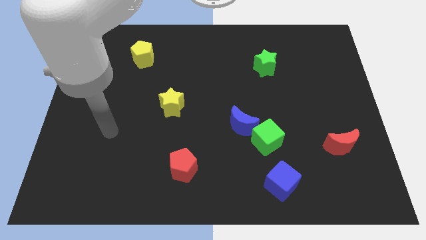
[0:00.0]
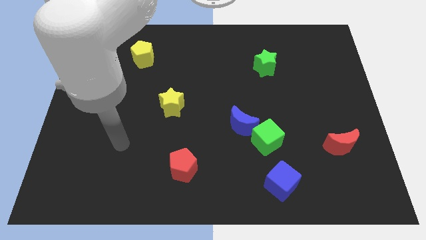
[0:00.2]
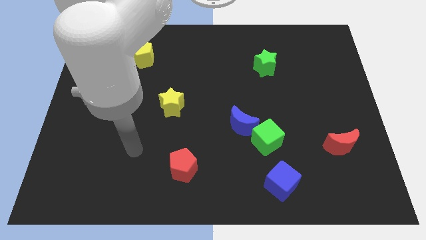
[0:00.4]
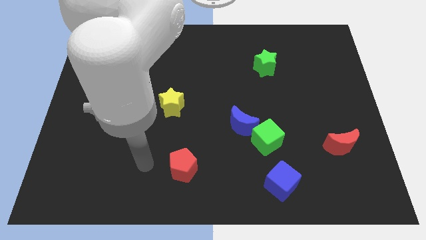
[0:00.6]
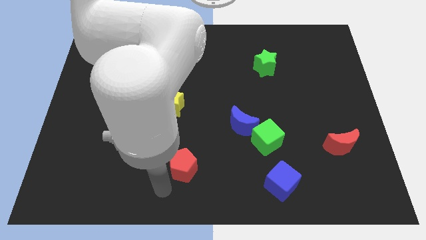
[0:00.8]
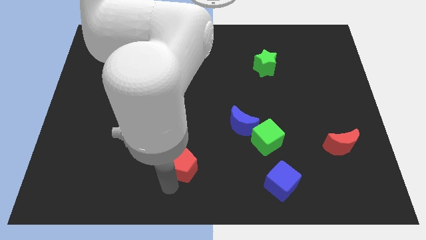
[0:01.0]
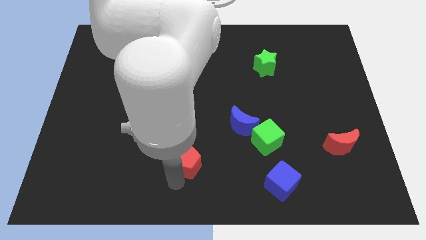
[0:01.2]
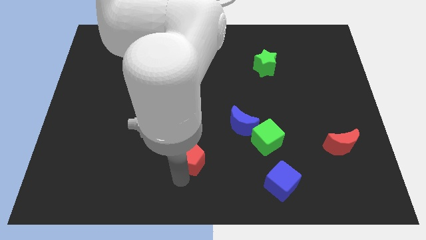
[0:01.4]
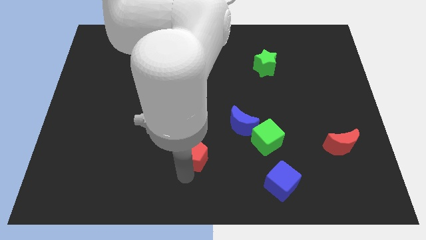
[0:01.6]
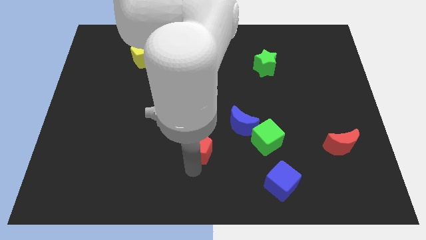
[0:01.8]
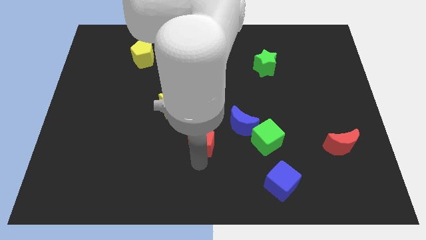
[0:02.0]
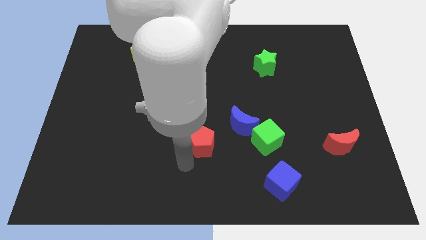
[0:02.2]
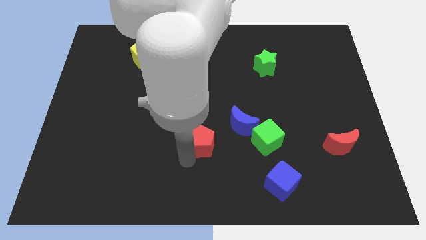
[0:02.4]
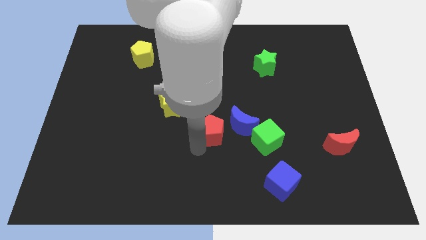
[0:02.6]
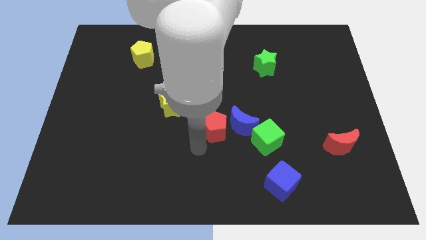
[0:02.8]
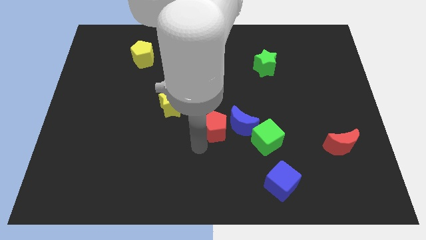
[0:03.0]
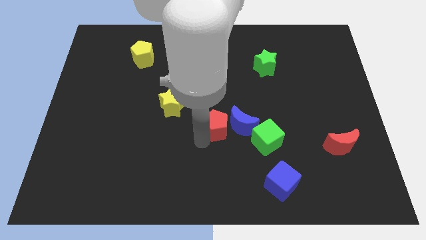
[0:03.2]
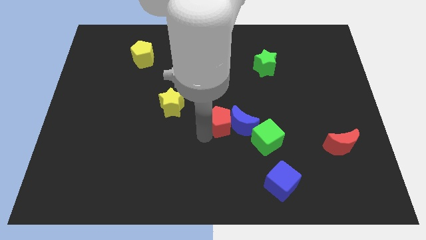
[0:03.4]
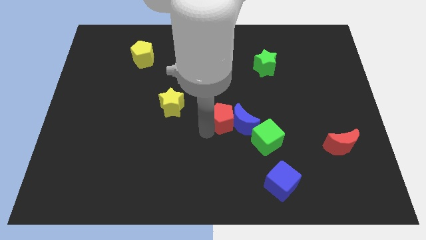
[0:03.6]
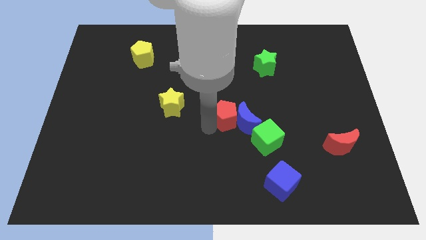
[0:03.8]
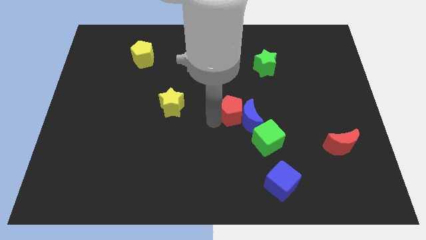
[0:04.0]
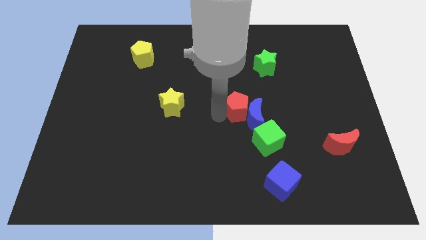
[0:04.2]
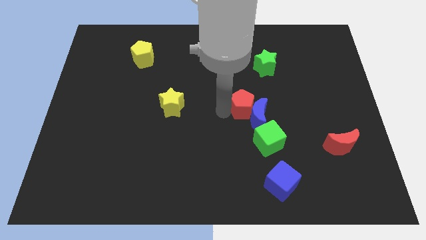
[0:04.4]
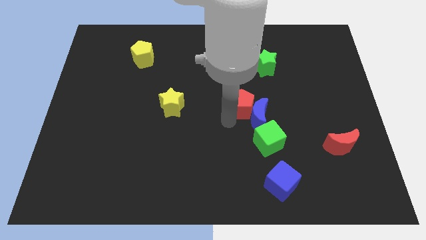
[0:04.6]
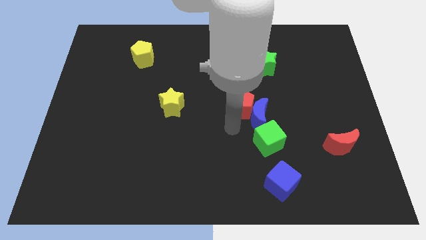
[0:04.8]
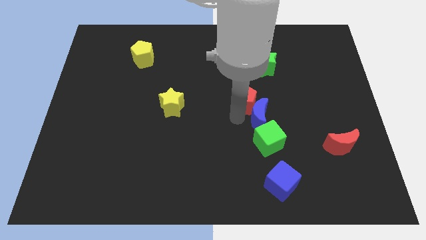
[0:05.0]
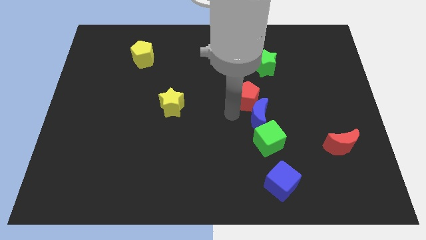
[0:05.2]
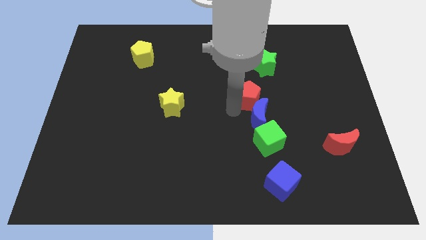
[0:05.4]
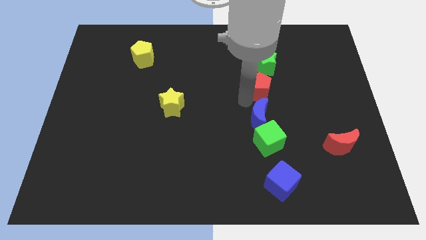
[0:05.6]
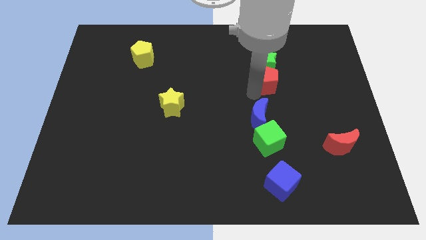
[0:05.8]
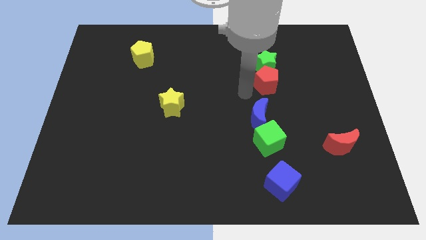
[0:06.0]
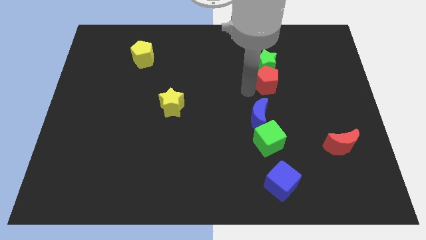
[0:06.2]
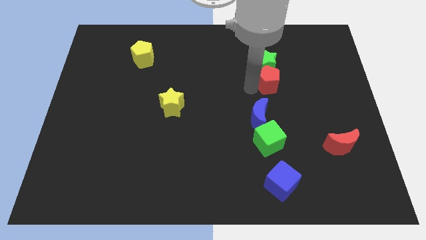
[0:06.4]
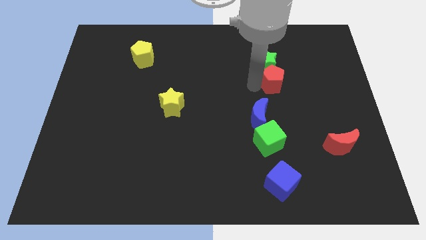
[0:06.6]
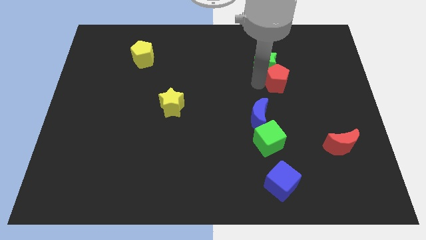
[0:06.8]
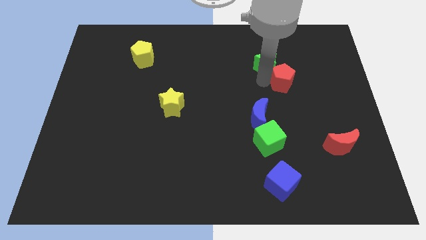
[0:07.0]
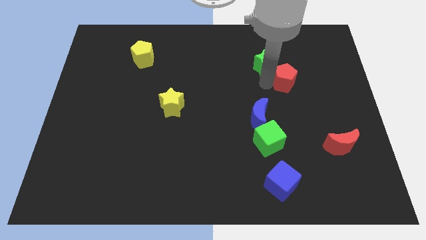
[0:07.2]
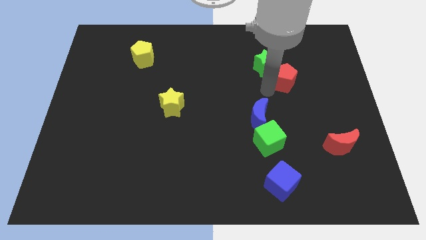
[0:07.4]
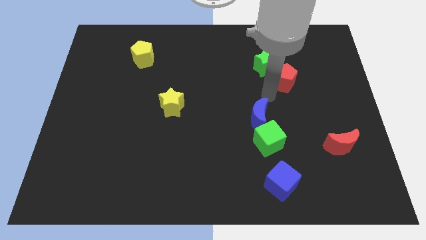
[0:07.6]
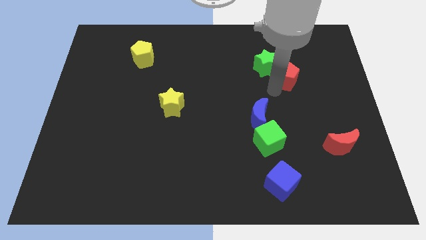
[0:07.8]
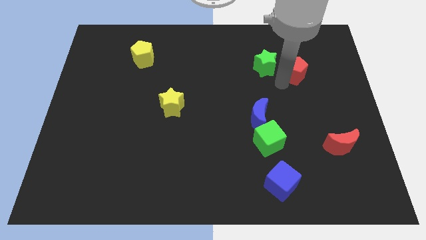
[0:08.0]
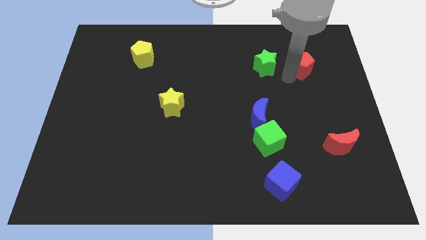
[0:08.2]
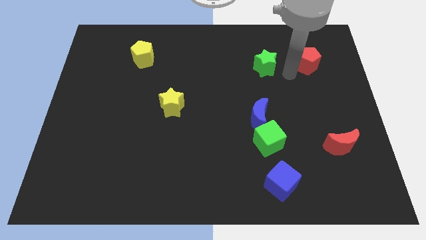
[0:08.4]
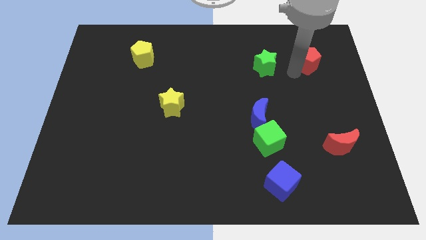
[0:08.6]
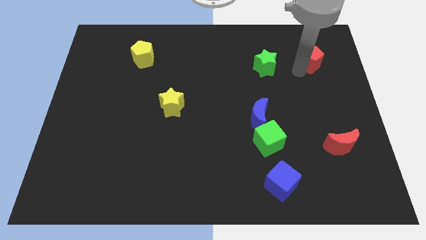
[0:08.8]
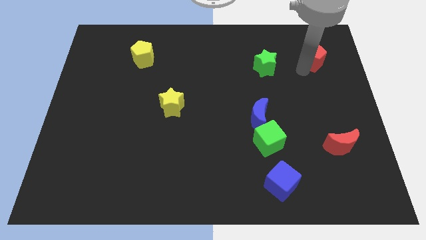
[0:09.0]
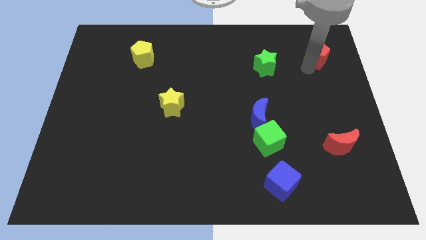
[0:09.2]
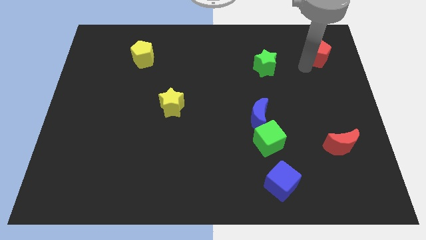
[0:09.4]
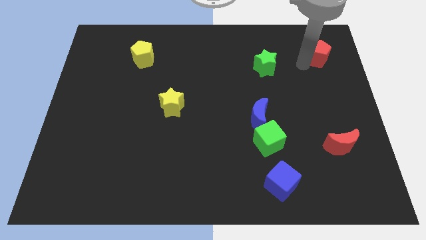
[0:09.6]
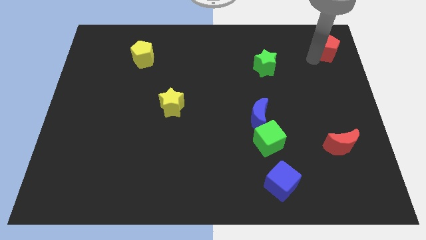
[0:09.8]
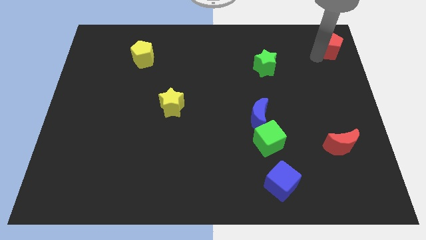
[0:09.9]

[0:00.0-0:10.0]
push the red pentagon to the top right corner

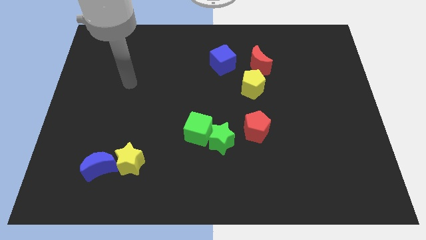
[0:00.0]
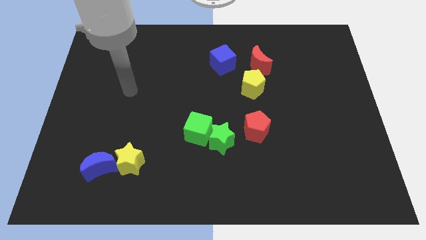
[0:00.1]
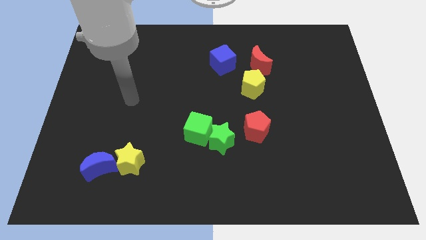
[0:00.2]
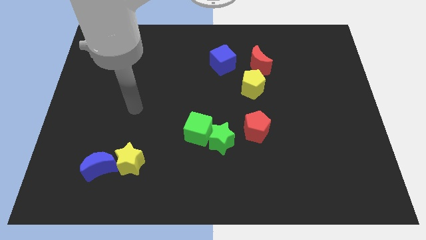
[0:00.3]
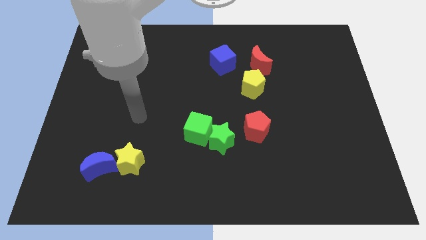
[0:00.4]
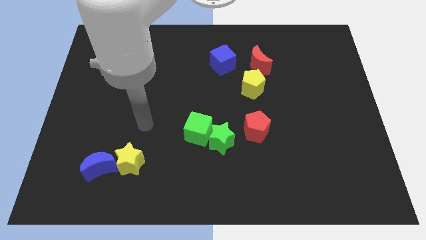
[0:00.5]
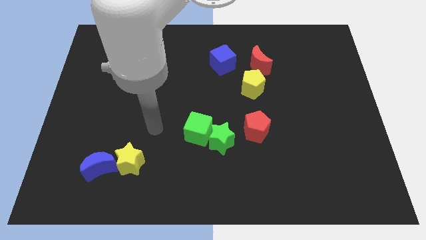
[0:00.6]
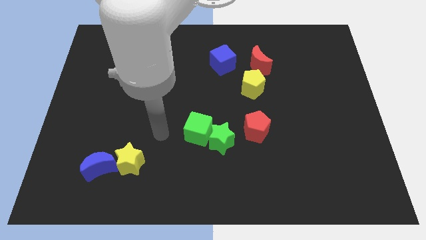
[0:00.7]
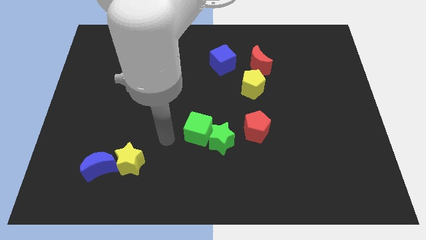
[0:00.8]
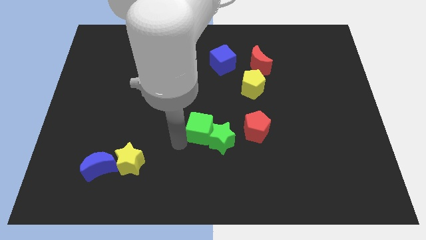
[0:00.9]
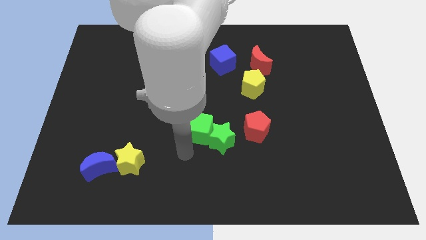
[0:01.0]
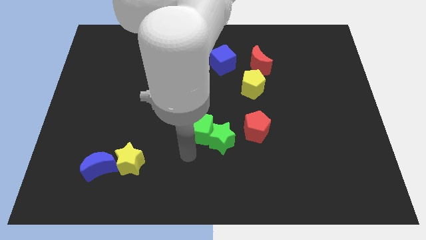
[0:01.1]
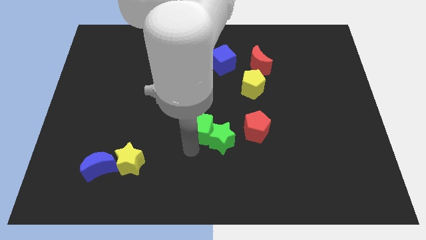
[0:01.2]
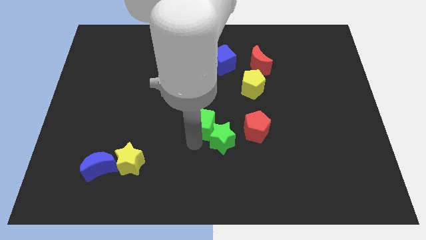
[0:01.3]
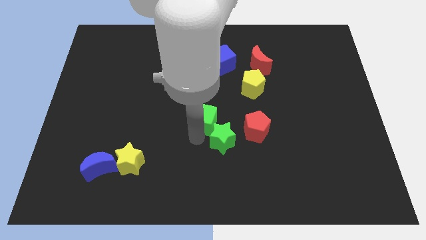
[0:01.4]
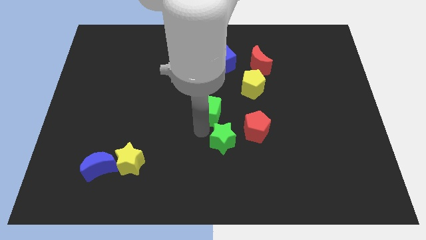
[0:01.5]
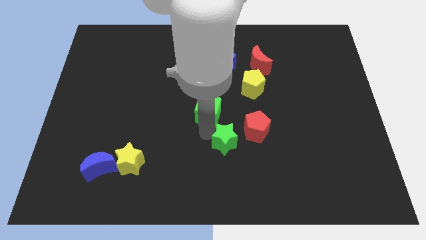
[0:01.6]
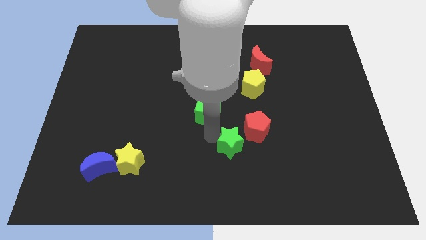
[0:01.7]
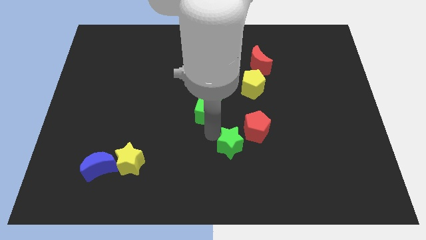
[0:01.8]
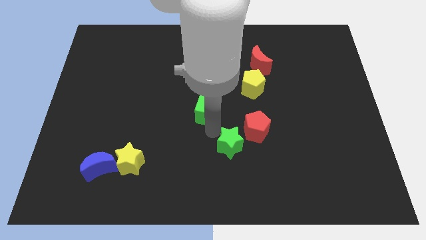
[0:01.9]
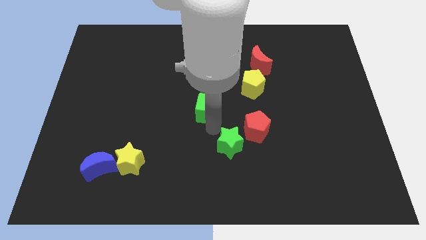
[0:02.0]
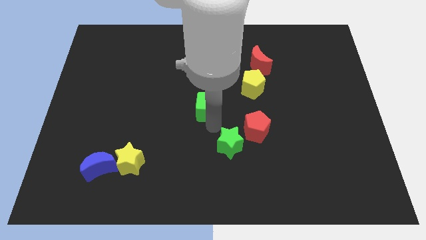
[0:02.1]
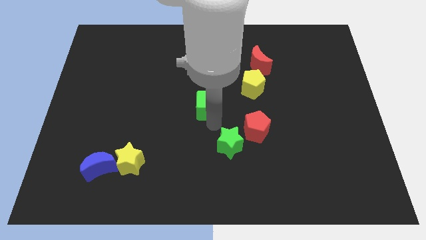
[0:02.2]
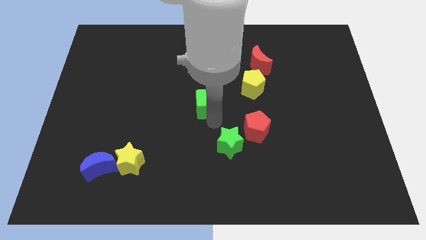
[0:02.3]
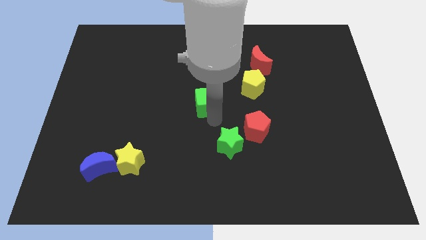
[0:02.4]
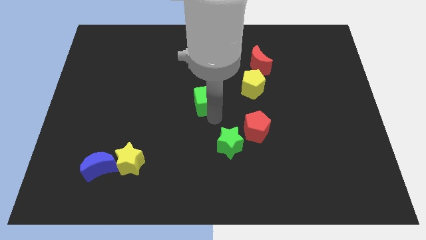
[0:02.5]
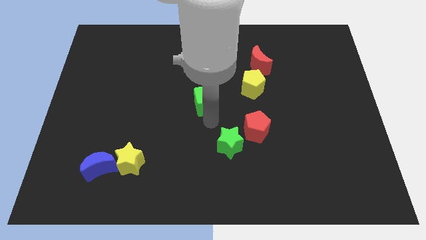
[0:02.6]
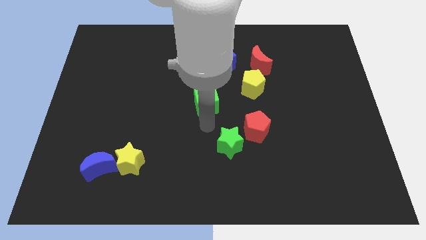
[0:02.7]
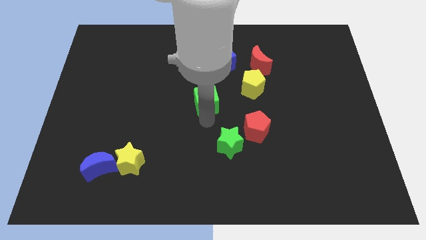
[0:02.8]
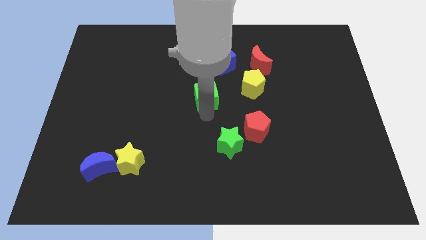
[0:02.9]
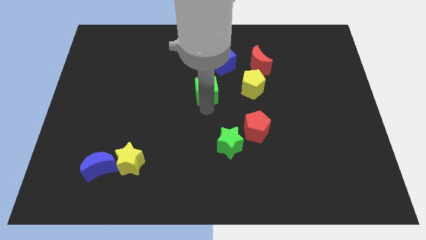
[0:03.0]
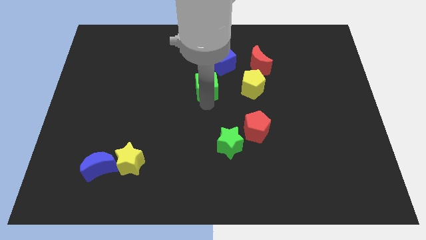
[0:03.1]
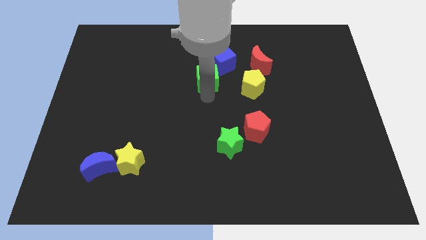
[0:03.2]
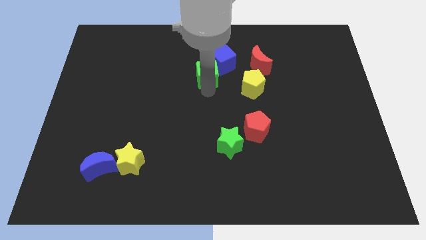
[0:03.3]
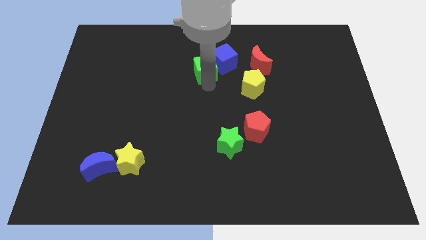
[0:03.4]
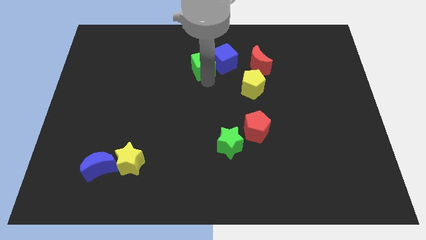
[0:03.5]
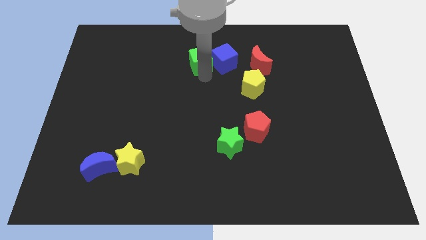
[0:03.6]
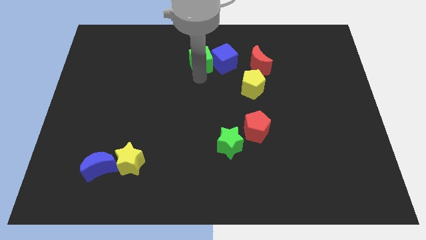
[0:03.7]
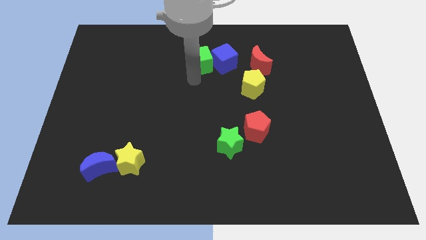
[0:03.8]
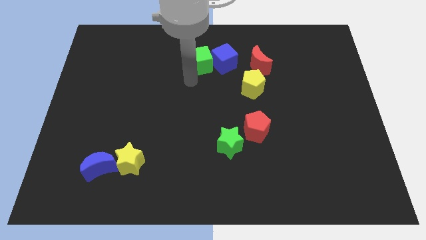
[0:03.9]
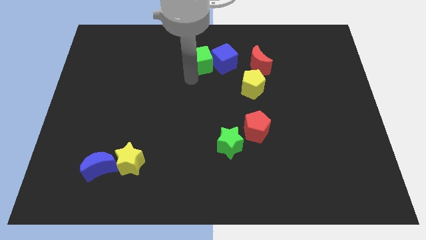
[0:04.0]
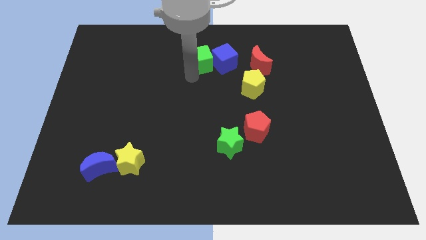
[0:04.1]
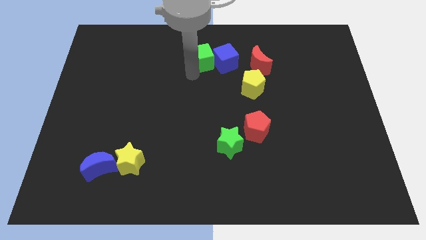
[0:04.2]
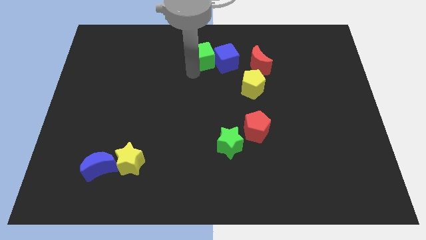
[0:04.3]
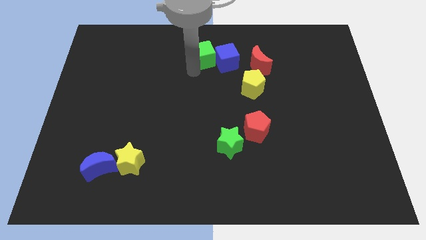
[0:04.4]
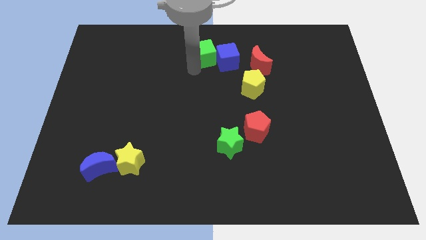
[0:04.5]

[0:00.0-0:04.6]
move the green cube to the top side
